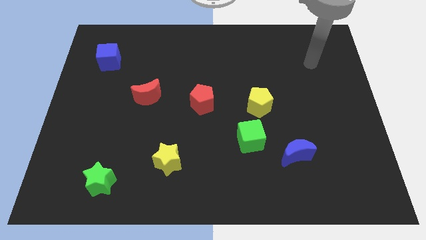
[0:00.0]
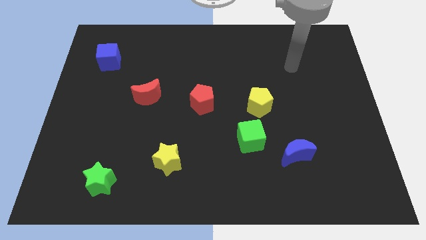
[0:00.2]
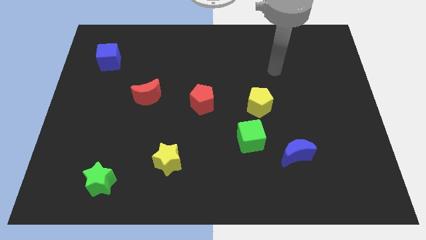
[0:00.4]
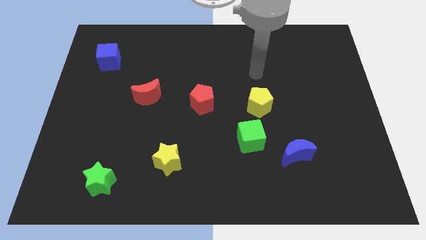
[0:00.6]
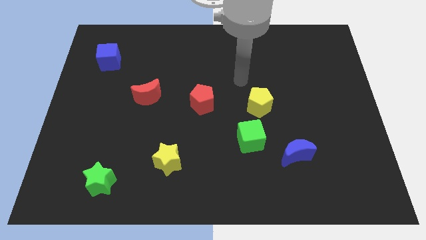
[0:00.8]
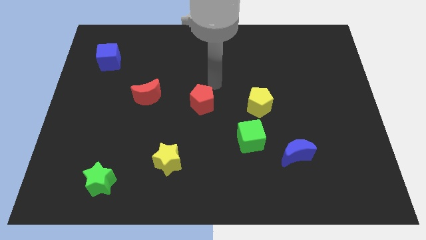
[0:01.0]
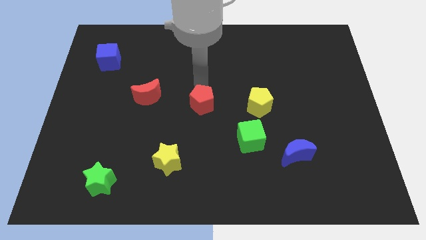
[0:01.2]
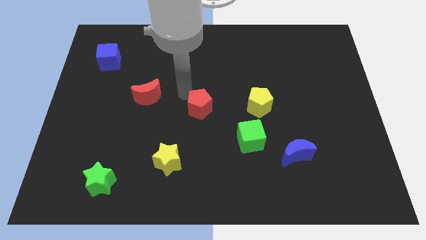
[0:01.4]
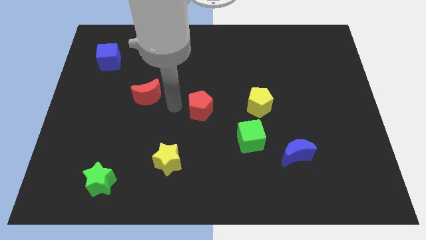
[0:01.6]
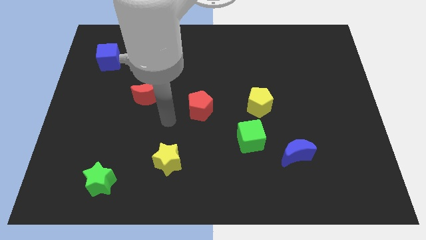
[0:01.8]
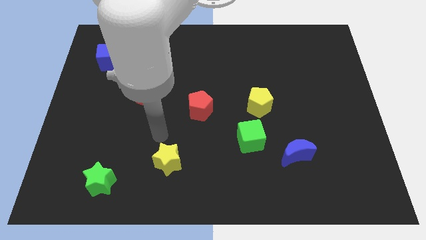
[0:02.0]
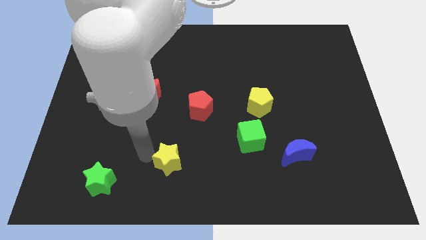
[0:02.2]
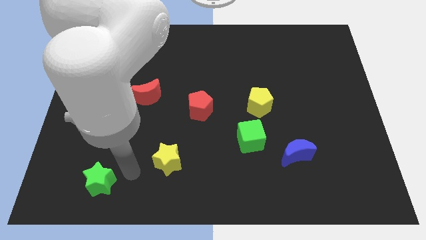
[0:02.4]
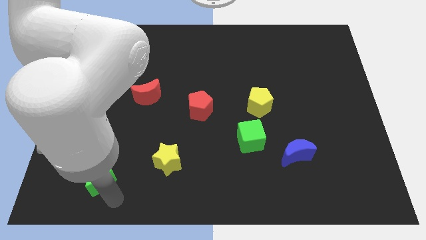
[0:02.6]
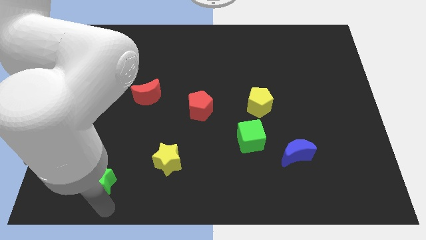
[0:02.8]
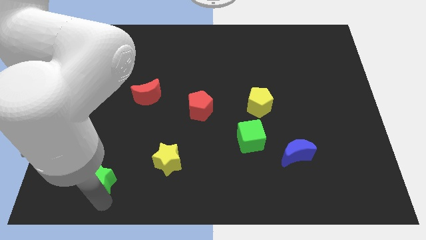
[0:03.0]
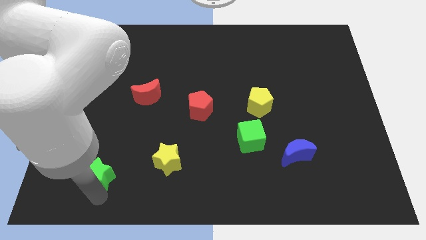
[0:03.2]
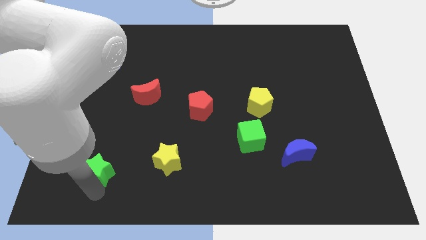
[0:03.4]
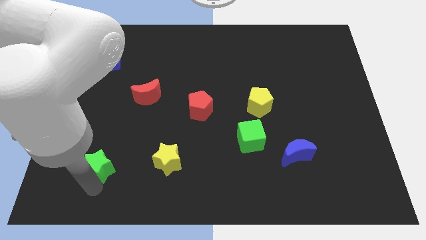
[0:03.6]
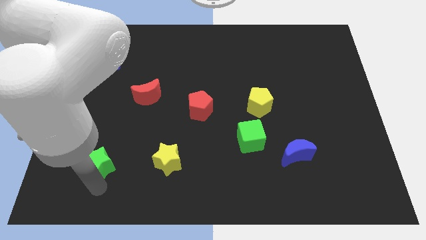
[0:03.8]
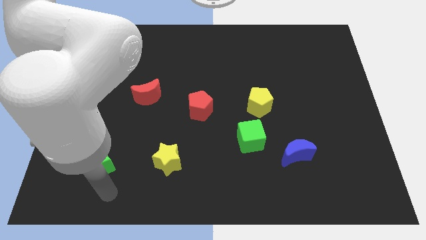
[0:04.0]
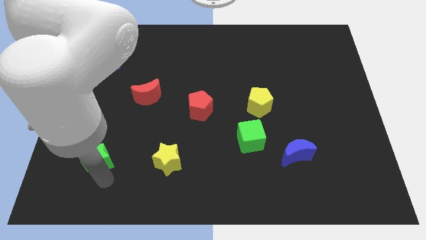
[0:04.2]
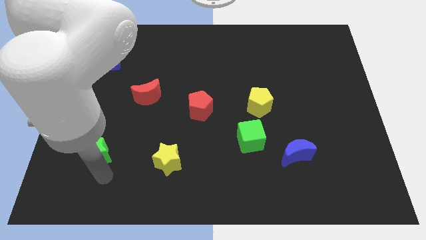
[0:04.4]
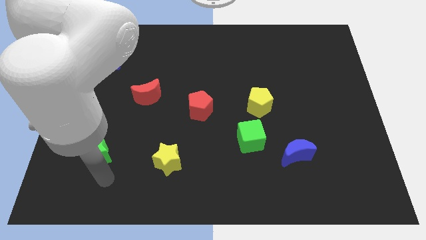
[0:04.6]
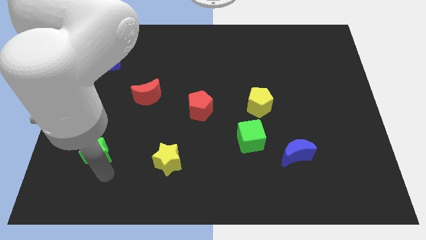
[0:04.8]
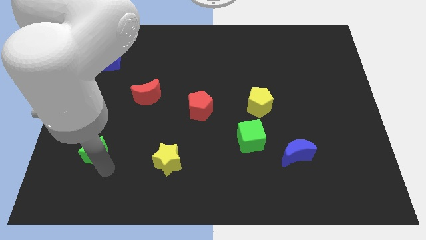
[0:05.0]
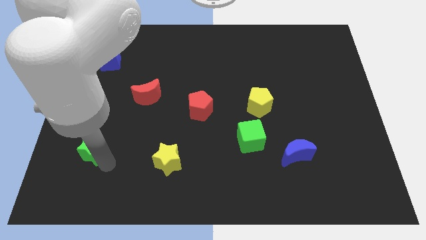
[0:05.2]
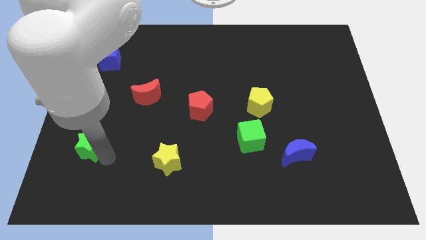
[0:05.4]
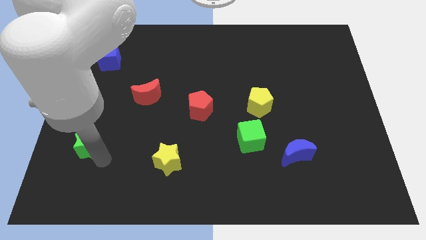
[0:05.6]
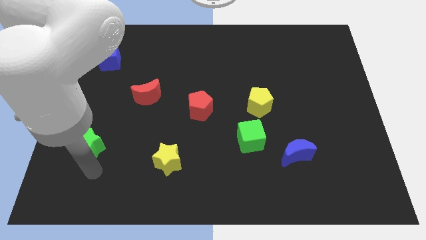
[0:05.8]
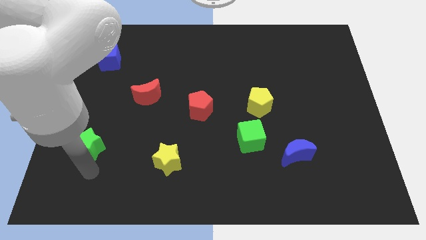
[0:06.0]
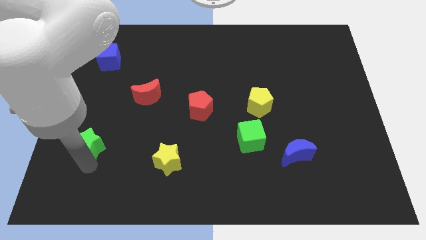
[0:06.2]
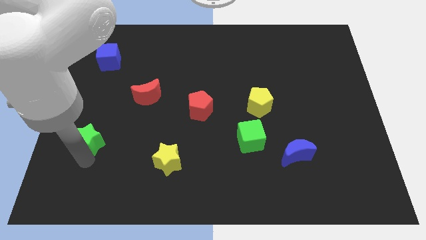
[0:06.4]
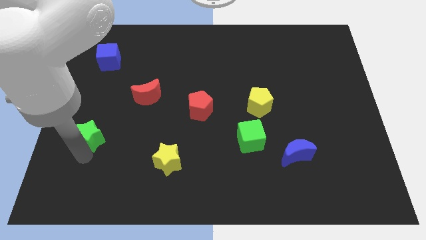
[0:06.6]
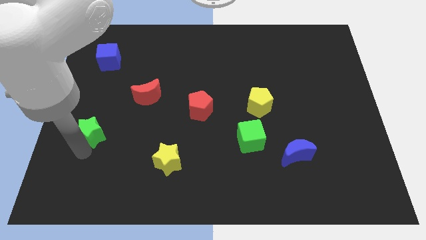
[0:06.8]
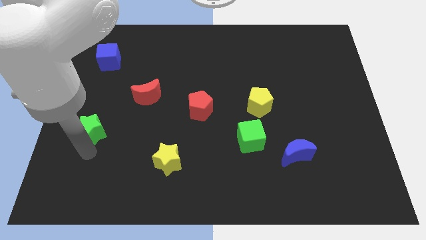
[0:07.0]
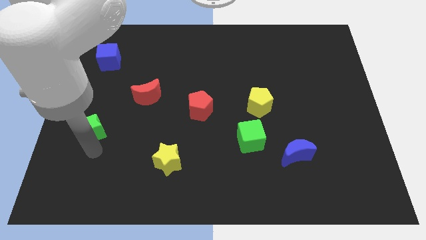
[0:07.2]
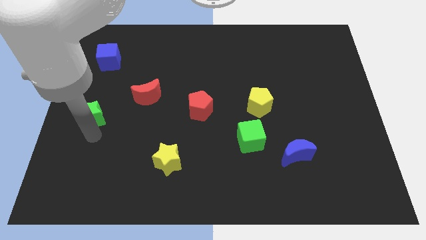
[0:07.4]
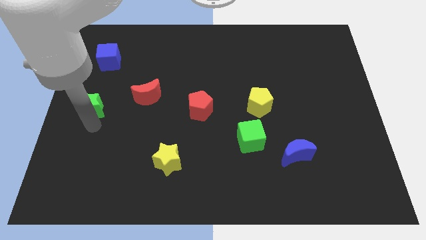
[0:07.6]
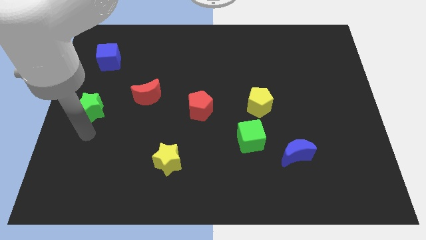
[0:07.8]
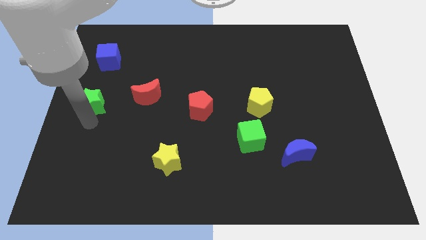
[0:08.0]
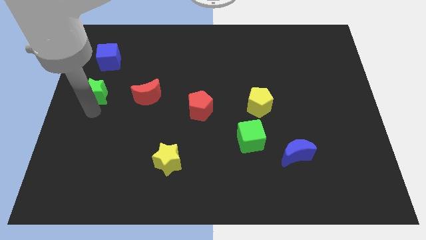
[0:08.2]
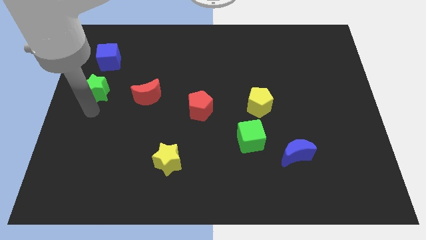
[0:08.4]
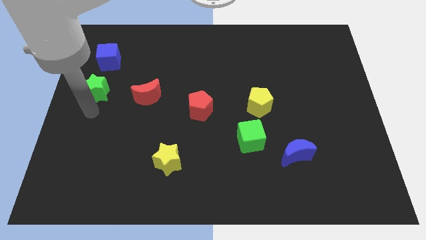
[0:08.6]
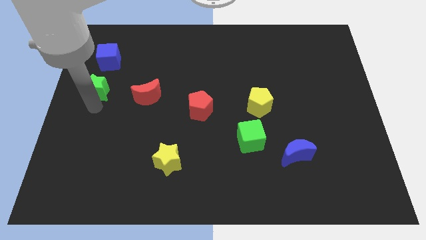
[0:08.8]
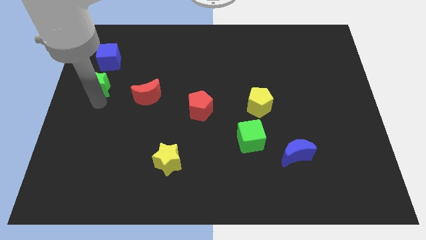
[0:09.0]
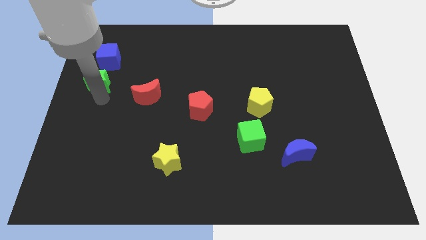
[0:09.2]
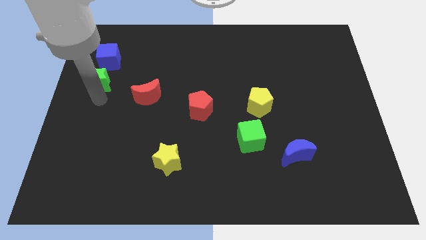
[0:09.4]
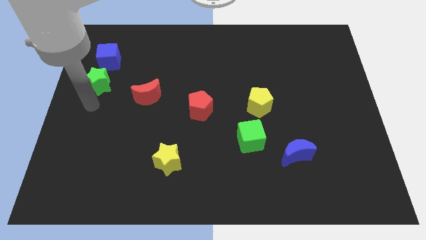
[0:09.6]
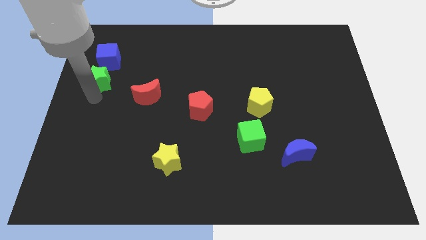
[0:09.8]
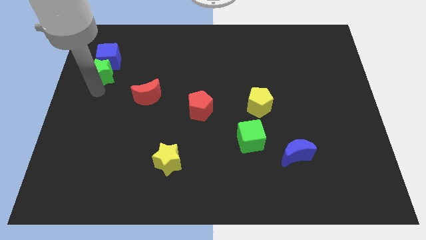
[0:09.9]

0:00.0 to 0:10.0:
push the green star to the blue cube

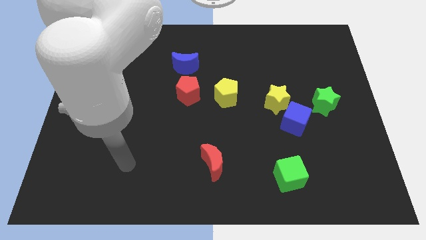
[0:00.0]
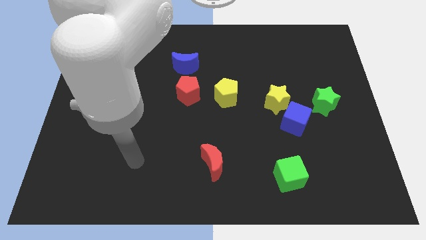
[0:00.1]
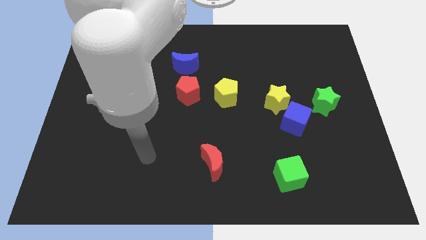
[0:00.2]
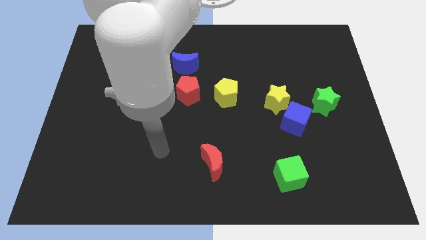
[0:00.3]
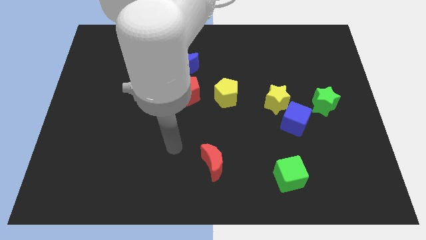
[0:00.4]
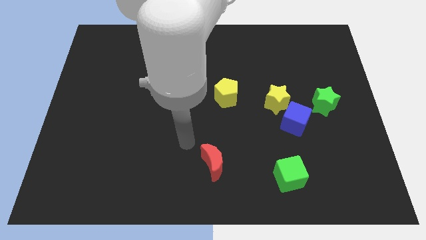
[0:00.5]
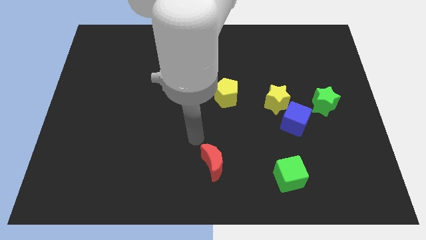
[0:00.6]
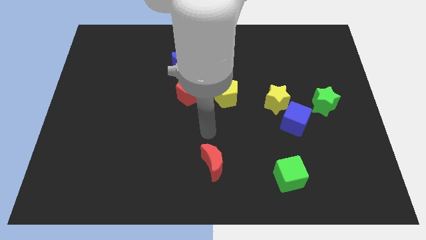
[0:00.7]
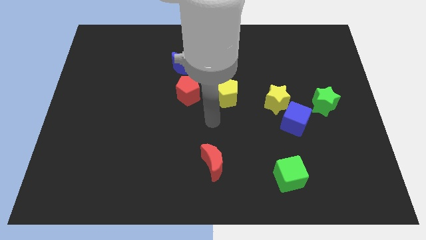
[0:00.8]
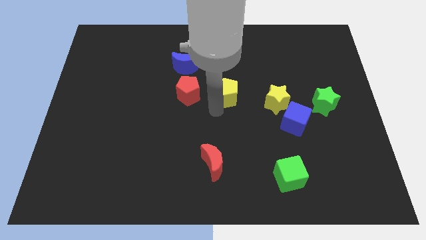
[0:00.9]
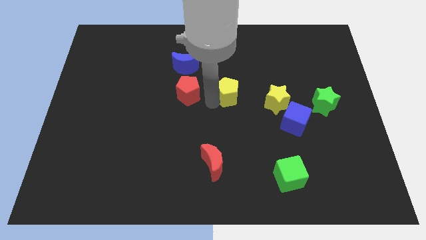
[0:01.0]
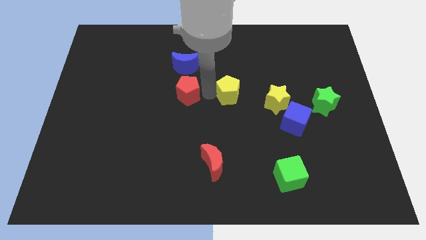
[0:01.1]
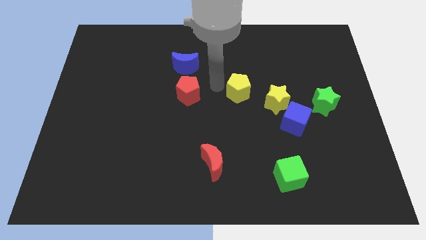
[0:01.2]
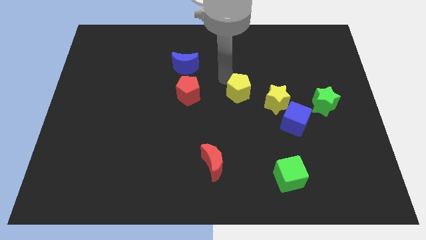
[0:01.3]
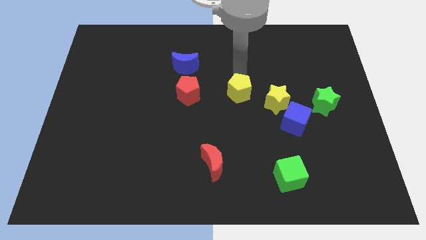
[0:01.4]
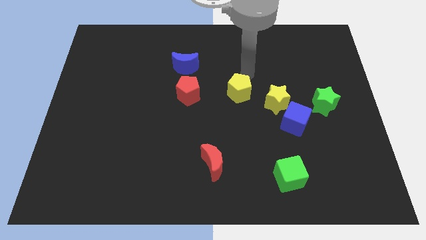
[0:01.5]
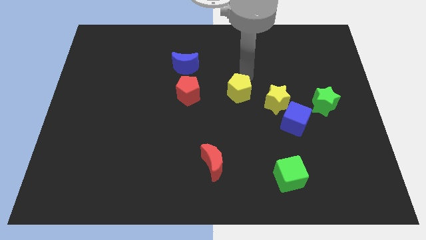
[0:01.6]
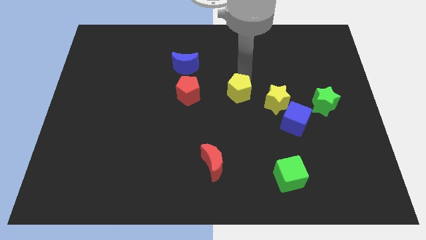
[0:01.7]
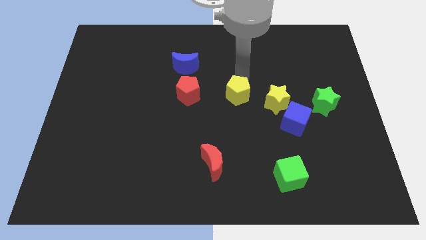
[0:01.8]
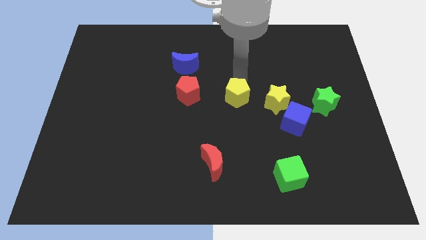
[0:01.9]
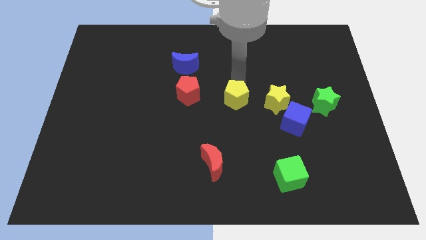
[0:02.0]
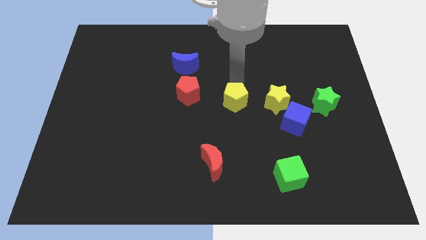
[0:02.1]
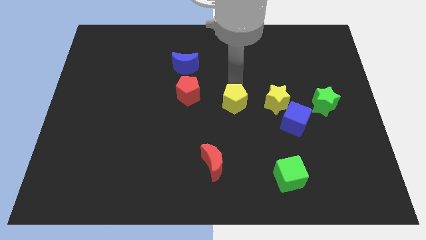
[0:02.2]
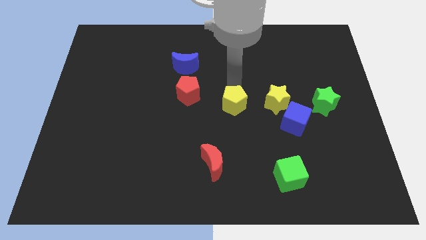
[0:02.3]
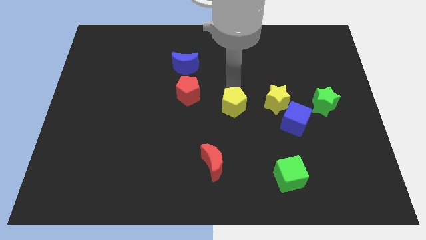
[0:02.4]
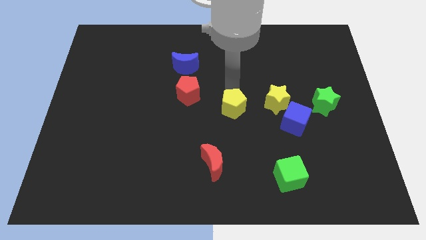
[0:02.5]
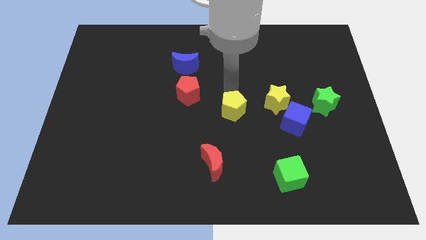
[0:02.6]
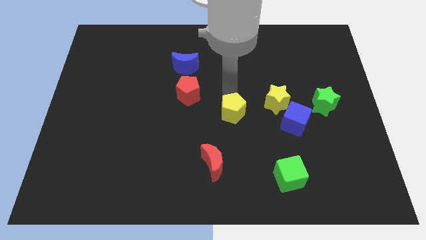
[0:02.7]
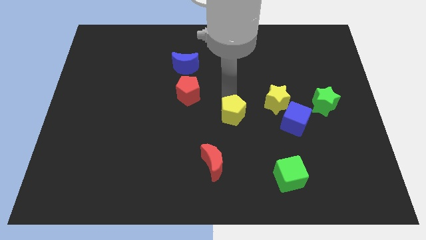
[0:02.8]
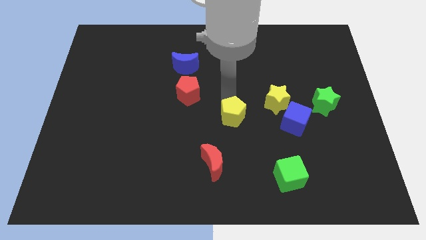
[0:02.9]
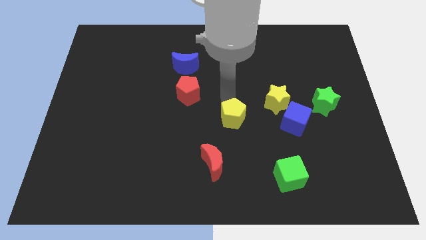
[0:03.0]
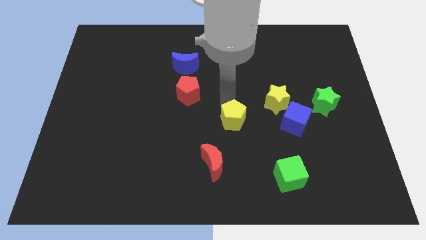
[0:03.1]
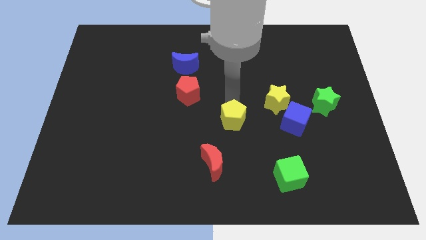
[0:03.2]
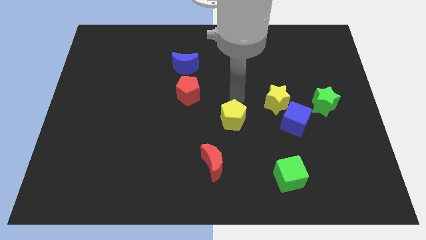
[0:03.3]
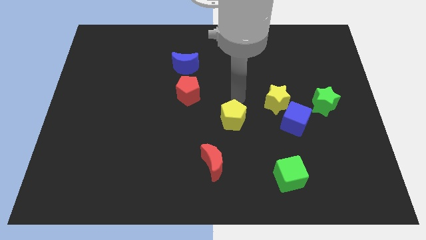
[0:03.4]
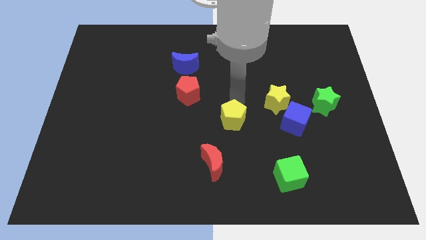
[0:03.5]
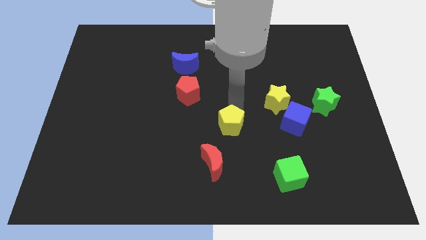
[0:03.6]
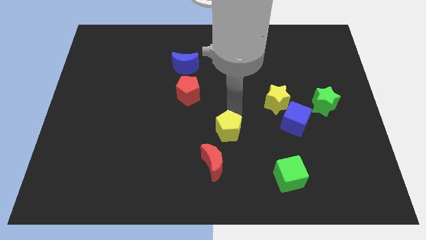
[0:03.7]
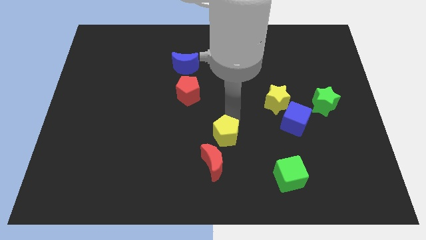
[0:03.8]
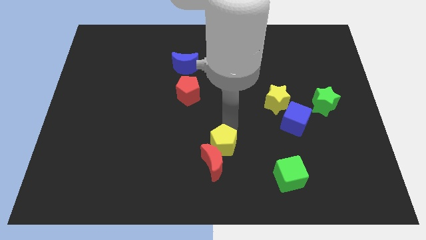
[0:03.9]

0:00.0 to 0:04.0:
put the yellow pentagon towards the red moon
